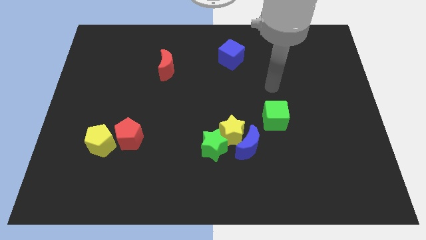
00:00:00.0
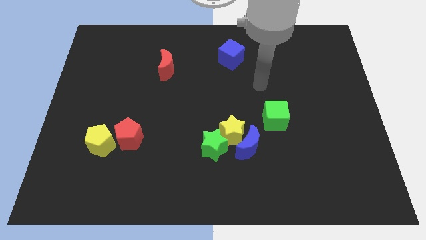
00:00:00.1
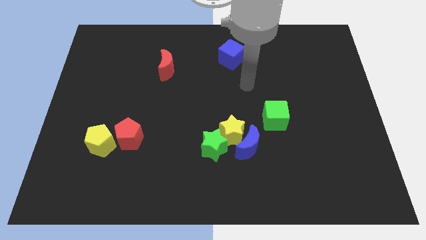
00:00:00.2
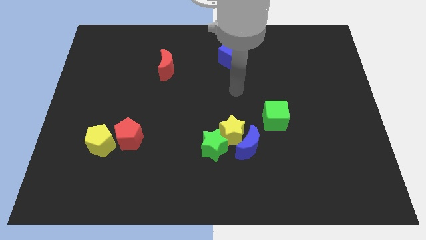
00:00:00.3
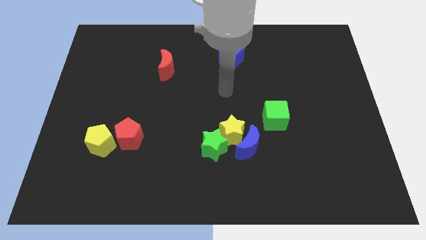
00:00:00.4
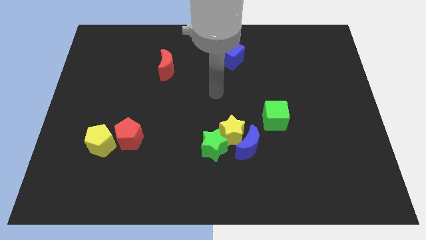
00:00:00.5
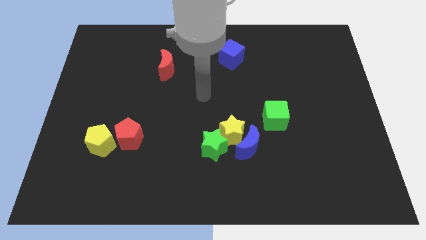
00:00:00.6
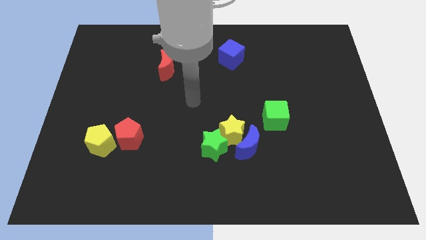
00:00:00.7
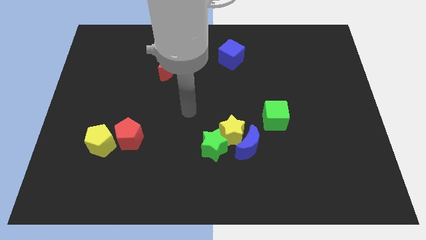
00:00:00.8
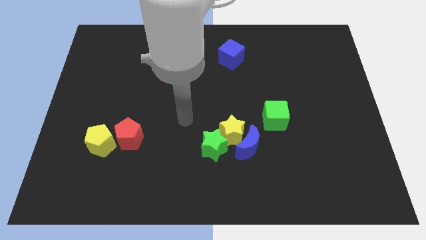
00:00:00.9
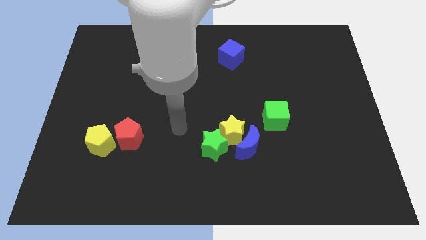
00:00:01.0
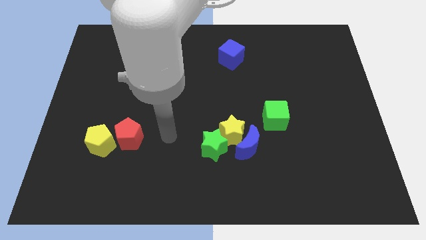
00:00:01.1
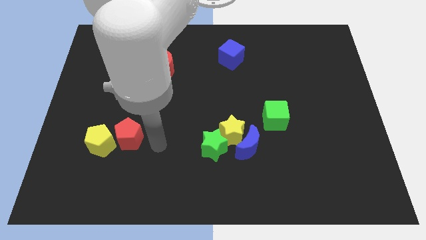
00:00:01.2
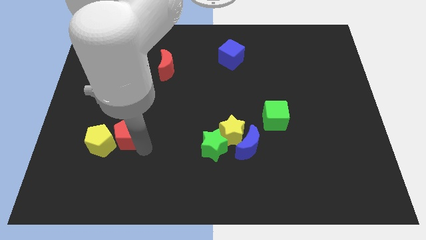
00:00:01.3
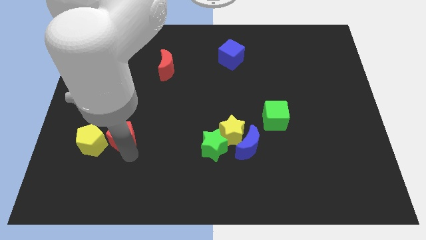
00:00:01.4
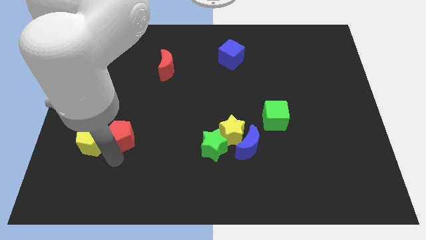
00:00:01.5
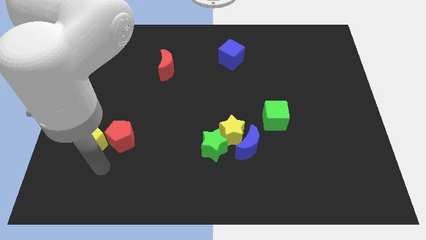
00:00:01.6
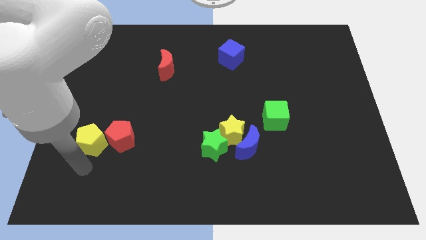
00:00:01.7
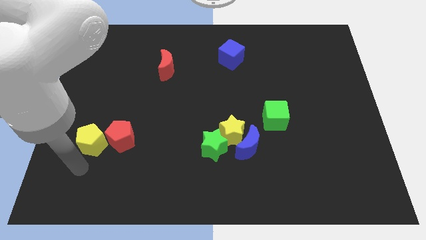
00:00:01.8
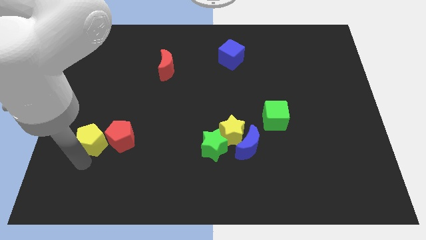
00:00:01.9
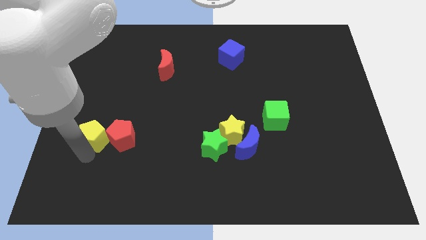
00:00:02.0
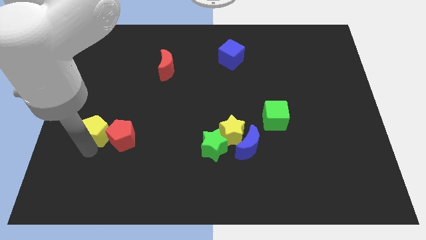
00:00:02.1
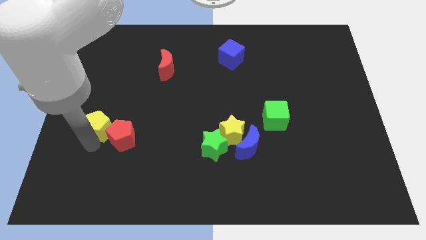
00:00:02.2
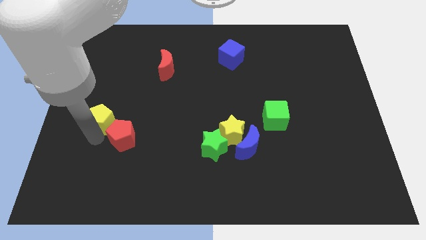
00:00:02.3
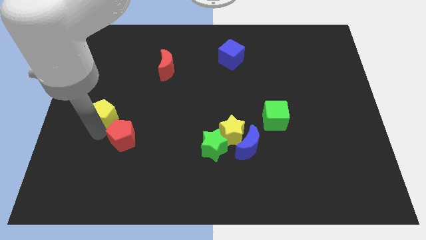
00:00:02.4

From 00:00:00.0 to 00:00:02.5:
push the yellow pentagon somewhat up

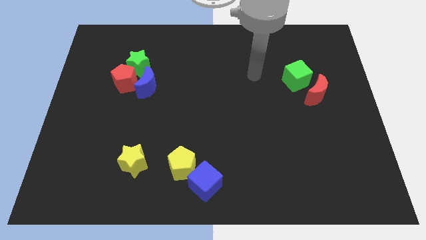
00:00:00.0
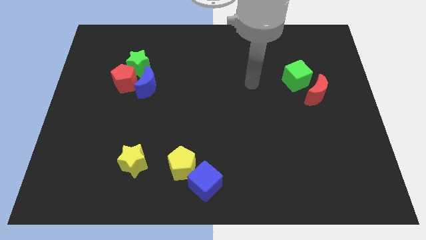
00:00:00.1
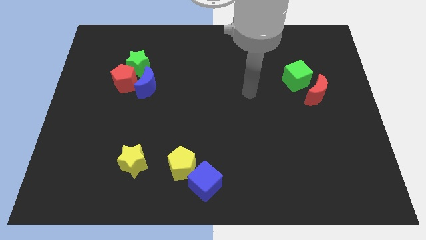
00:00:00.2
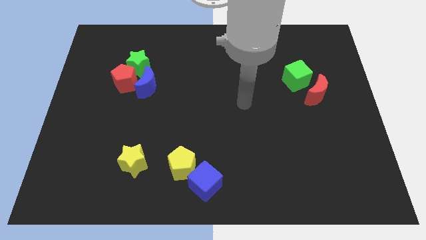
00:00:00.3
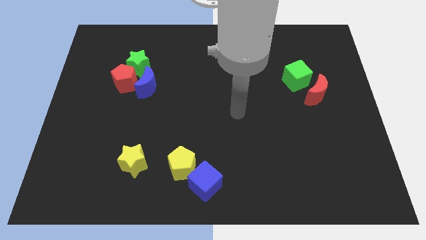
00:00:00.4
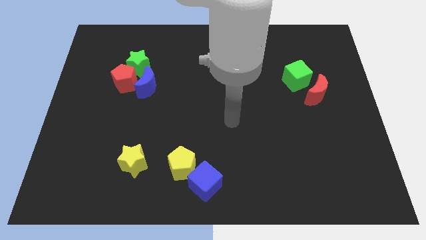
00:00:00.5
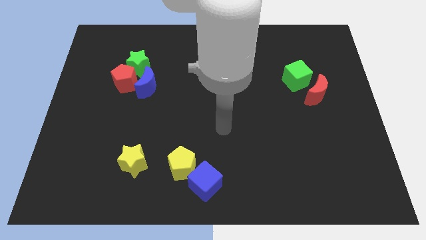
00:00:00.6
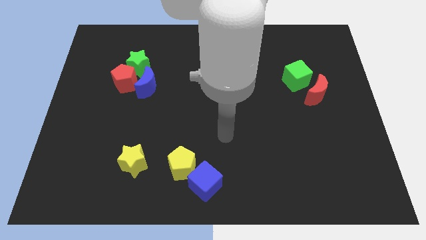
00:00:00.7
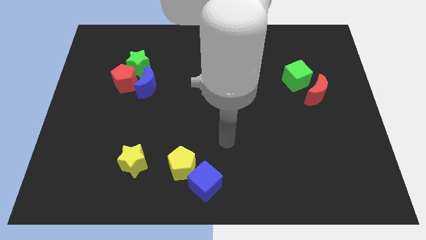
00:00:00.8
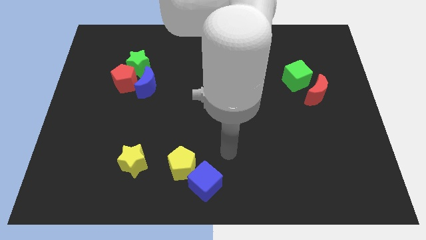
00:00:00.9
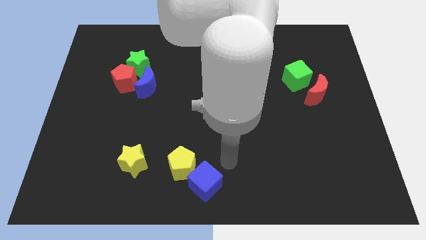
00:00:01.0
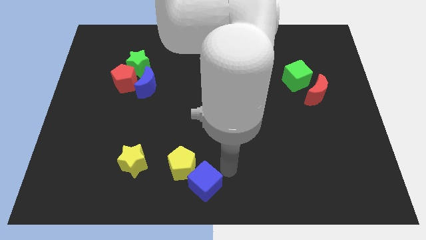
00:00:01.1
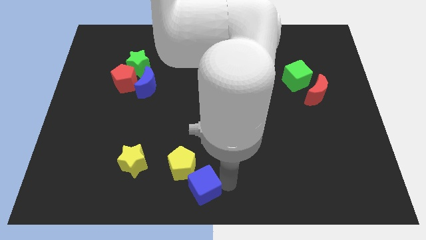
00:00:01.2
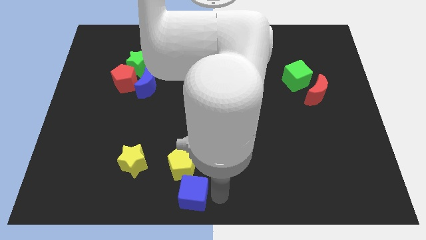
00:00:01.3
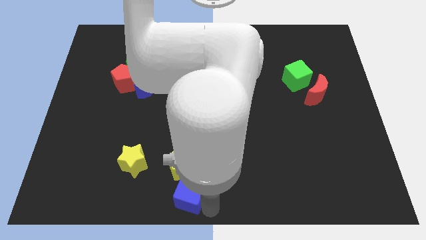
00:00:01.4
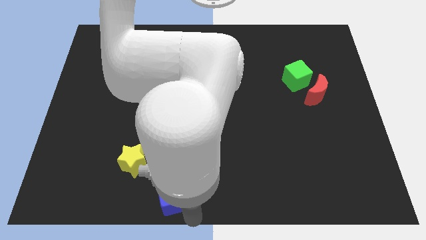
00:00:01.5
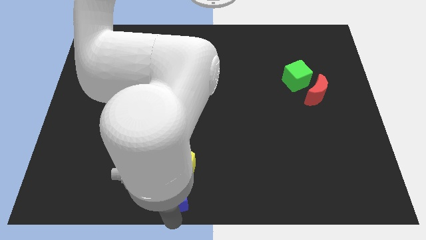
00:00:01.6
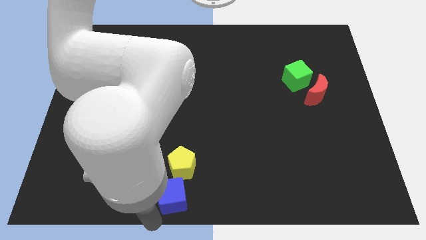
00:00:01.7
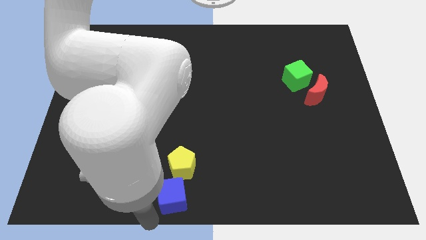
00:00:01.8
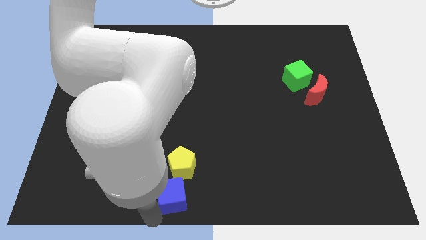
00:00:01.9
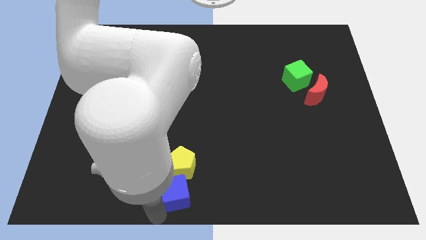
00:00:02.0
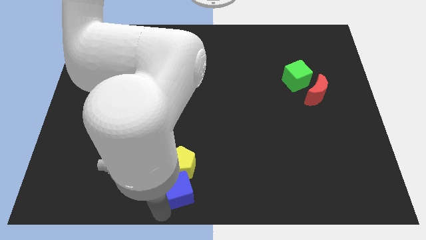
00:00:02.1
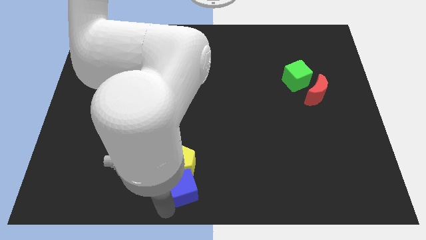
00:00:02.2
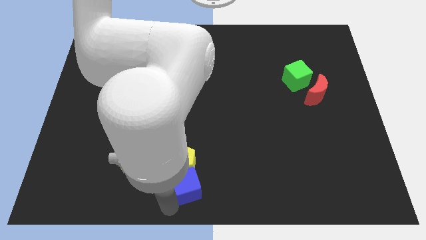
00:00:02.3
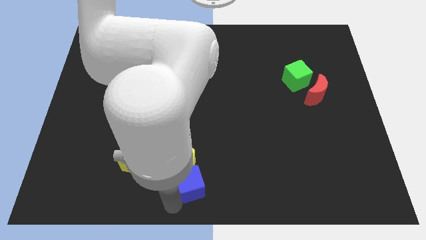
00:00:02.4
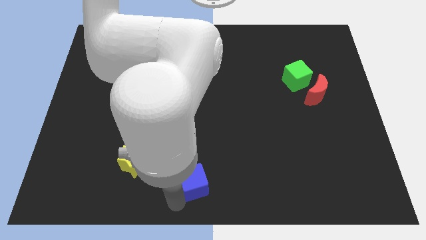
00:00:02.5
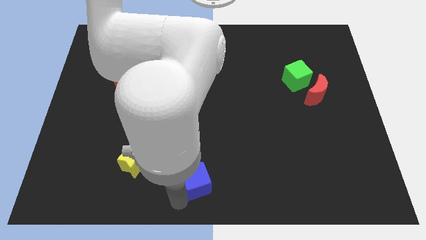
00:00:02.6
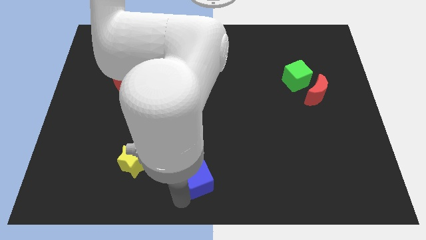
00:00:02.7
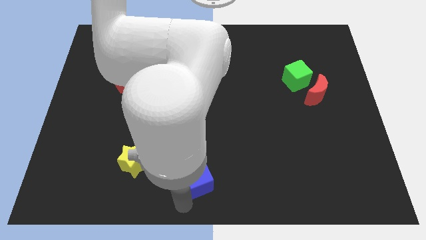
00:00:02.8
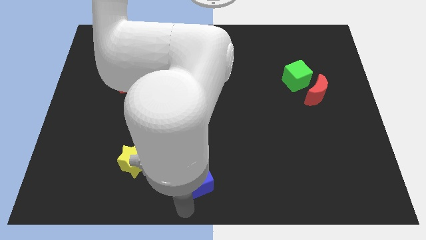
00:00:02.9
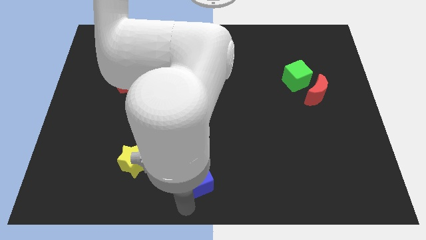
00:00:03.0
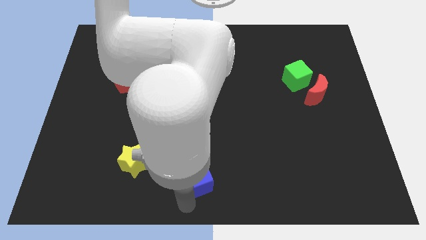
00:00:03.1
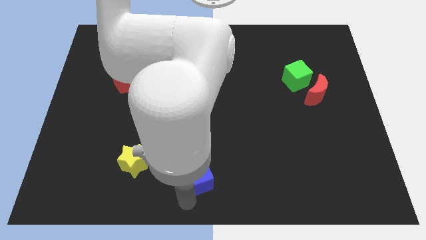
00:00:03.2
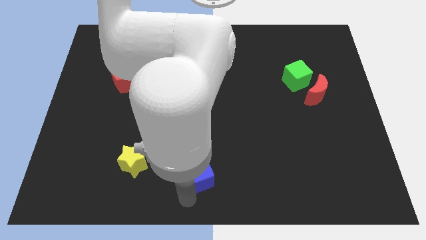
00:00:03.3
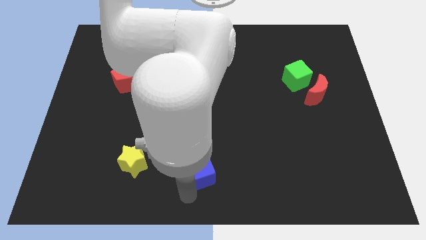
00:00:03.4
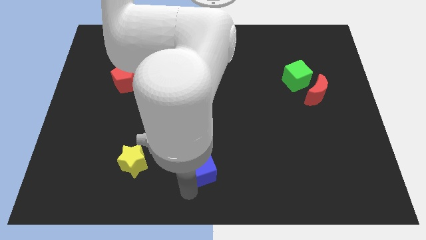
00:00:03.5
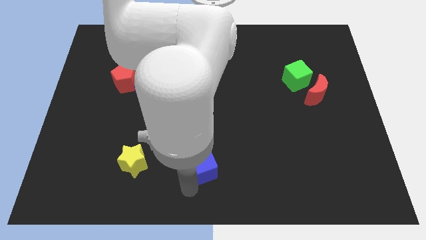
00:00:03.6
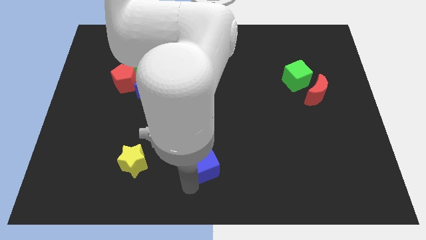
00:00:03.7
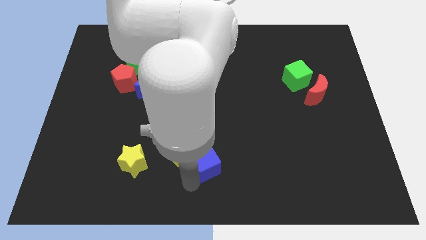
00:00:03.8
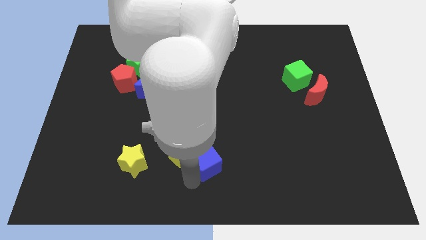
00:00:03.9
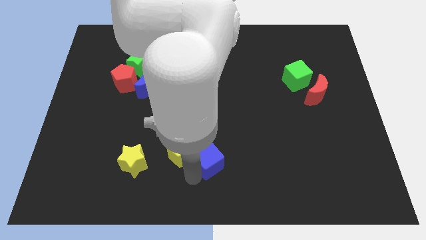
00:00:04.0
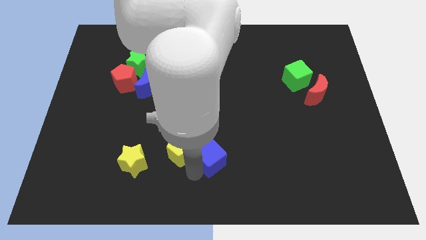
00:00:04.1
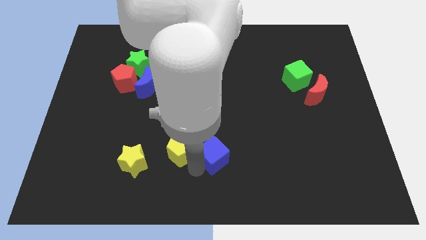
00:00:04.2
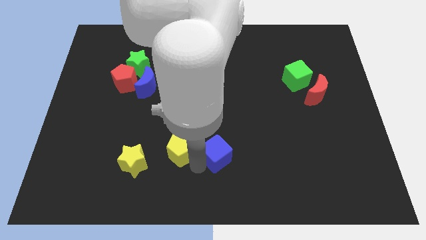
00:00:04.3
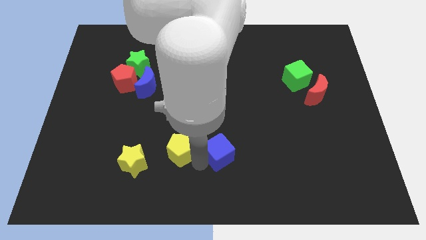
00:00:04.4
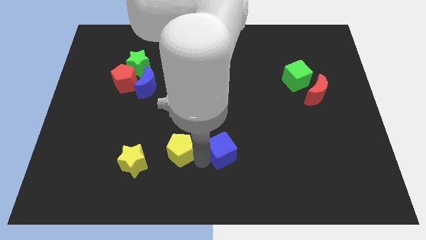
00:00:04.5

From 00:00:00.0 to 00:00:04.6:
slide the blue cube up slightly

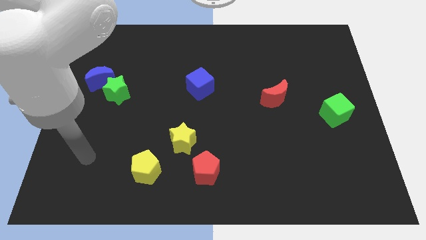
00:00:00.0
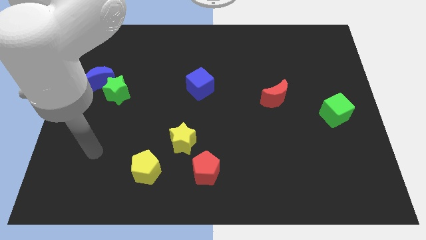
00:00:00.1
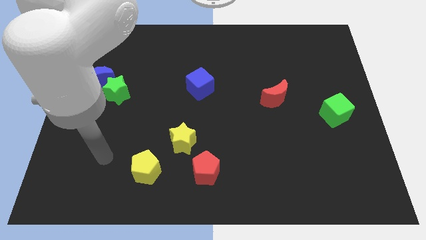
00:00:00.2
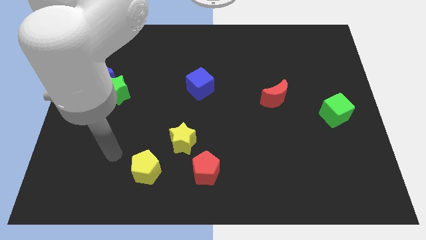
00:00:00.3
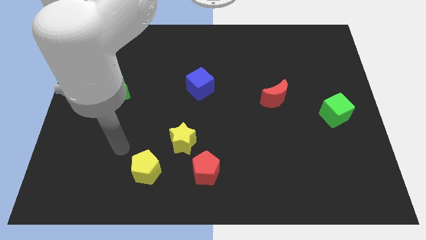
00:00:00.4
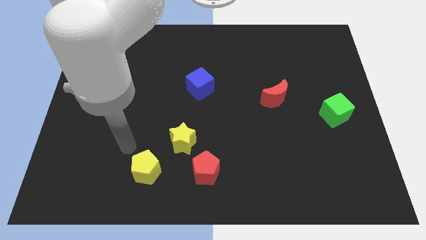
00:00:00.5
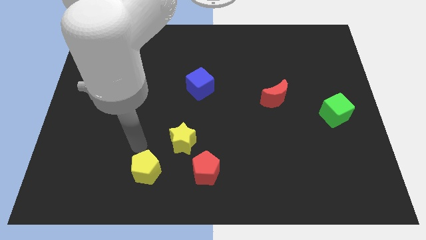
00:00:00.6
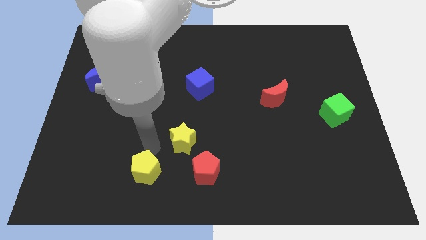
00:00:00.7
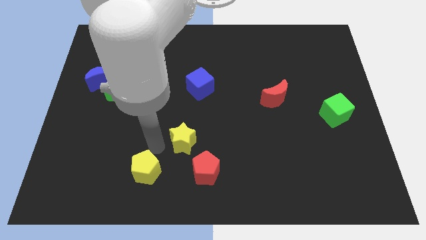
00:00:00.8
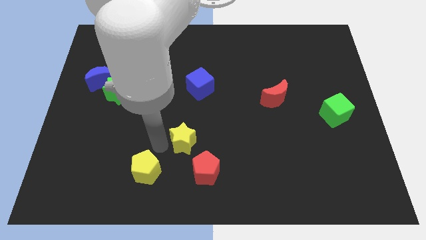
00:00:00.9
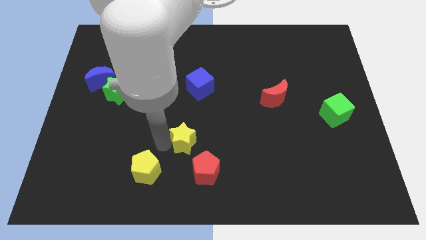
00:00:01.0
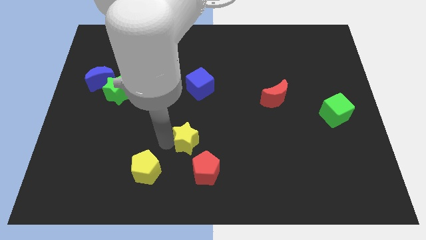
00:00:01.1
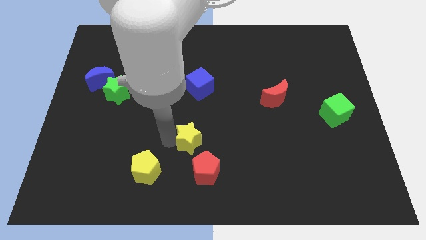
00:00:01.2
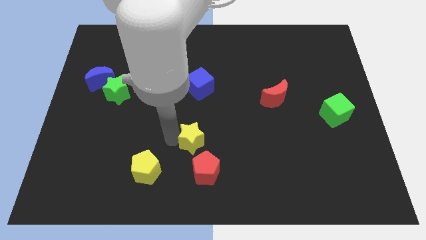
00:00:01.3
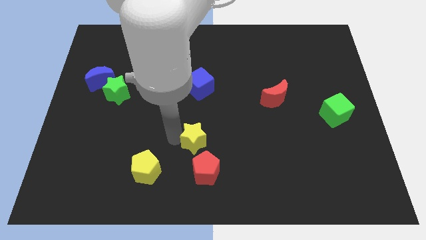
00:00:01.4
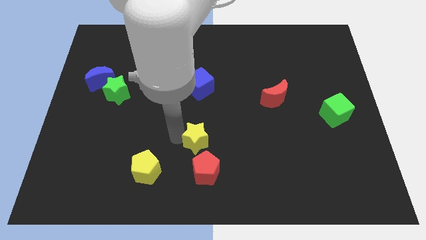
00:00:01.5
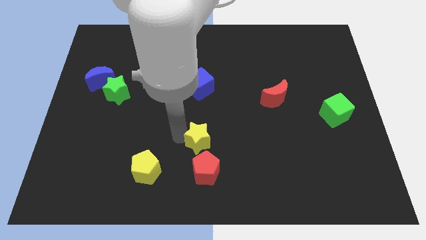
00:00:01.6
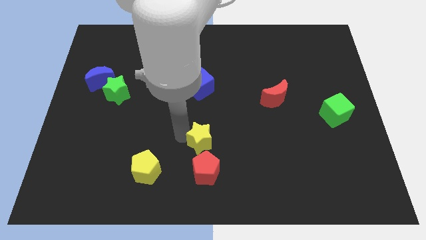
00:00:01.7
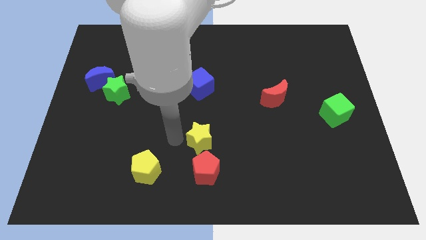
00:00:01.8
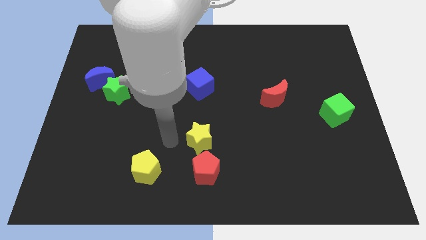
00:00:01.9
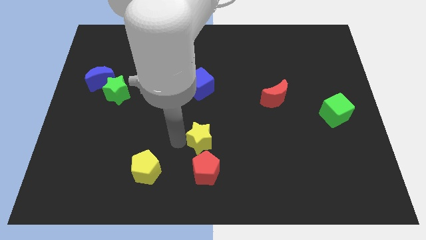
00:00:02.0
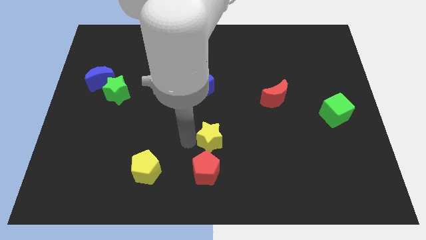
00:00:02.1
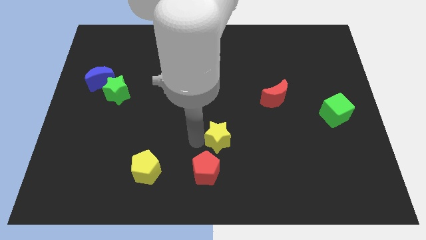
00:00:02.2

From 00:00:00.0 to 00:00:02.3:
slide the yellow star a little bit right
